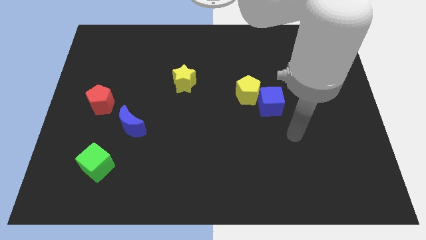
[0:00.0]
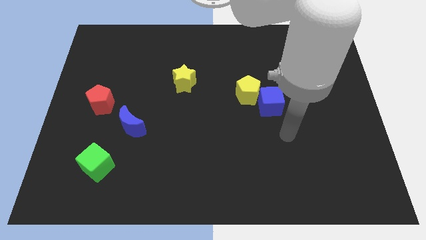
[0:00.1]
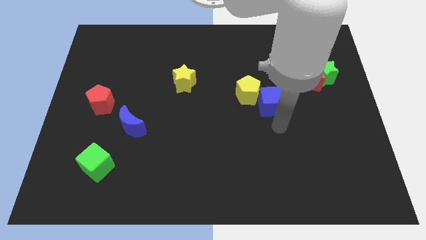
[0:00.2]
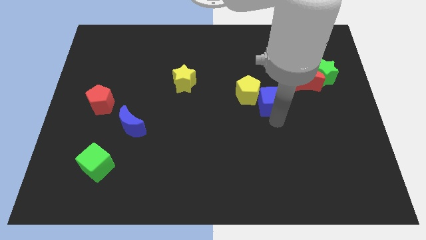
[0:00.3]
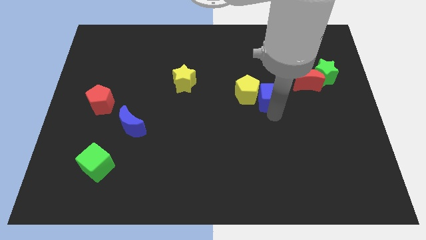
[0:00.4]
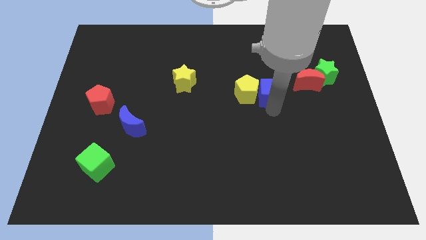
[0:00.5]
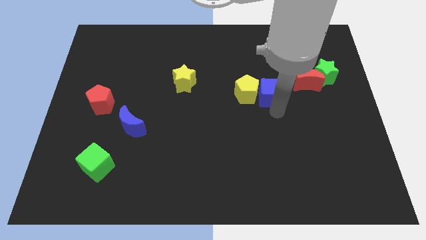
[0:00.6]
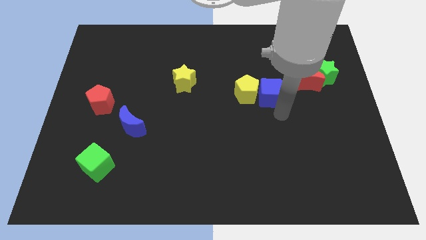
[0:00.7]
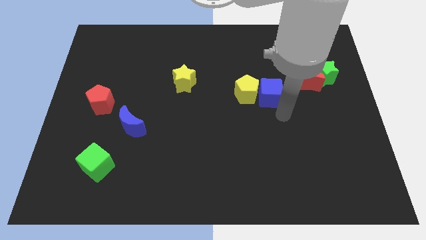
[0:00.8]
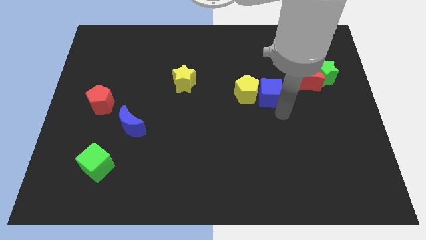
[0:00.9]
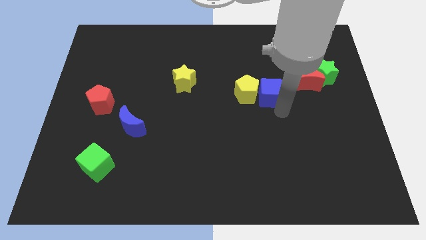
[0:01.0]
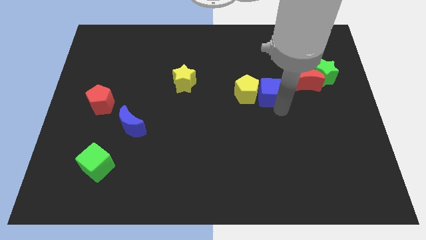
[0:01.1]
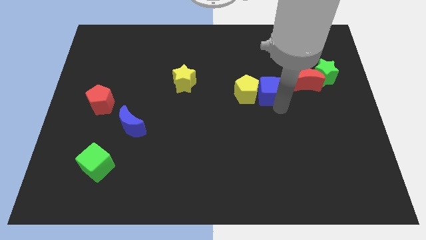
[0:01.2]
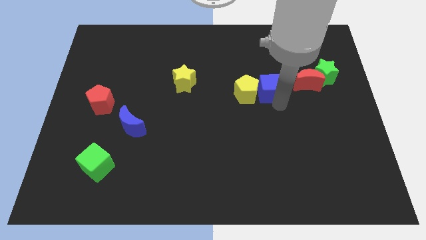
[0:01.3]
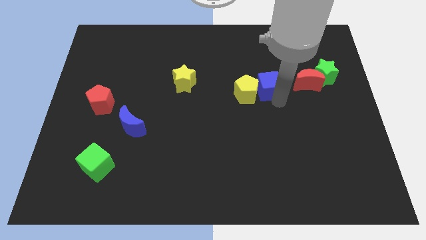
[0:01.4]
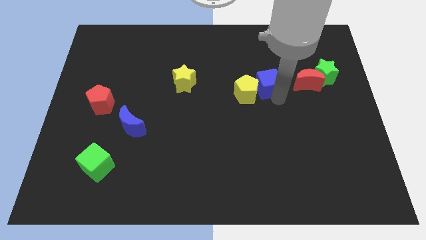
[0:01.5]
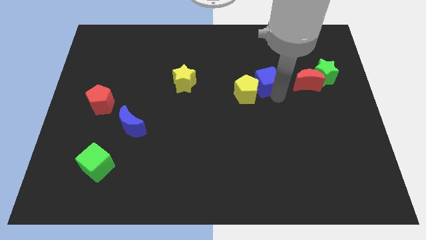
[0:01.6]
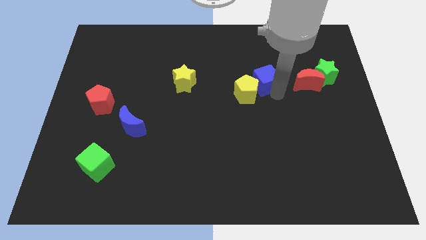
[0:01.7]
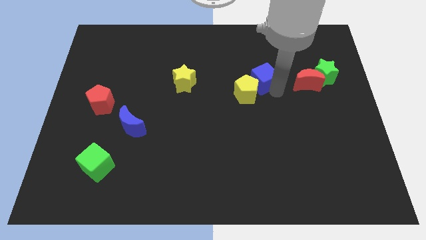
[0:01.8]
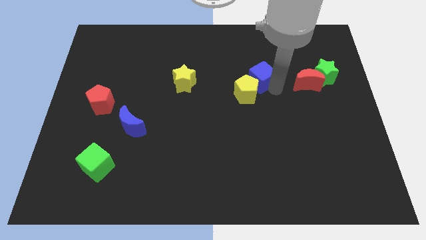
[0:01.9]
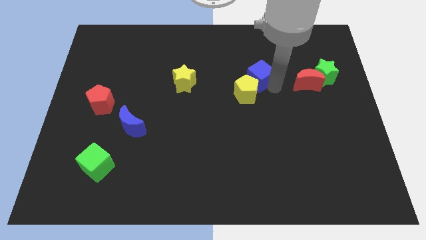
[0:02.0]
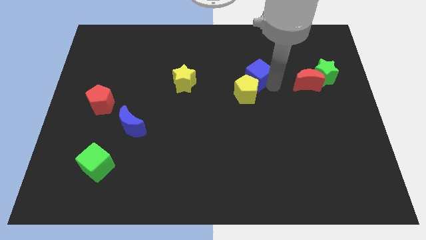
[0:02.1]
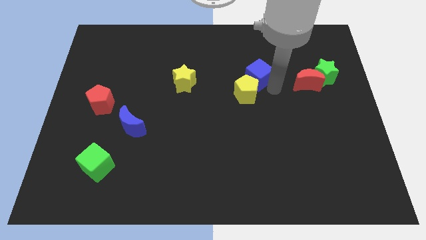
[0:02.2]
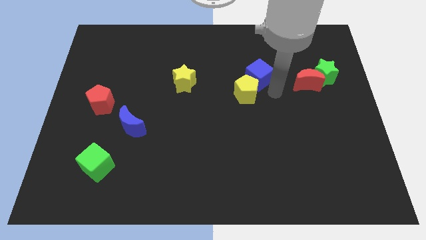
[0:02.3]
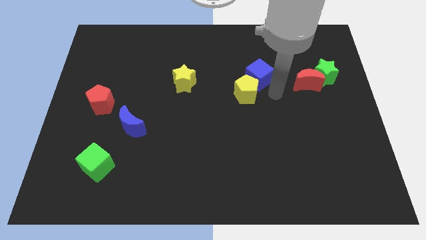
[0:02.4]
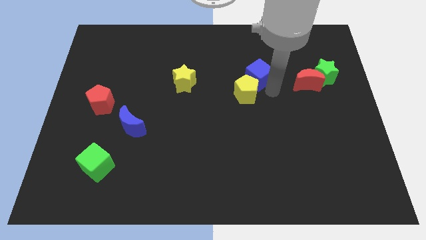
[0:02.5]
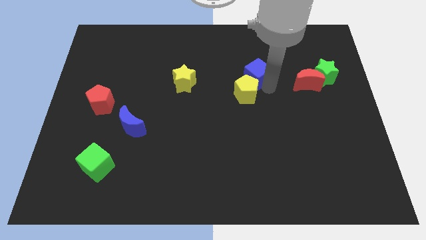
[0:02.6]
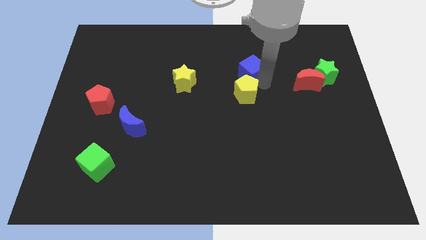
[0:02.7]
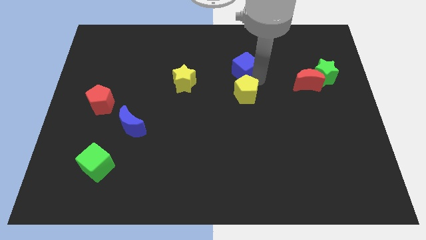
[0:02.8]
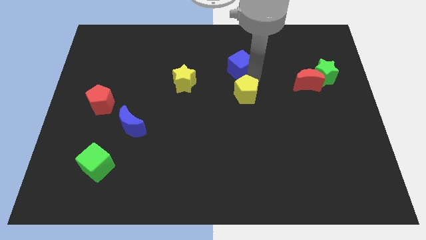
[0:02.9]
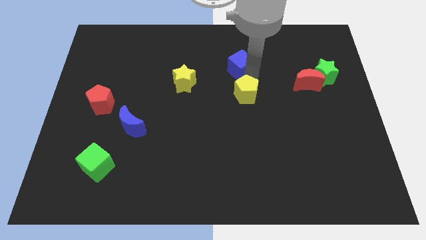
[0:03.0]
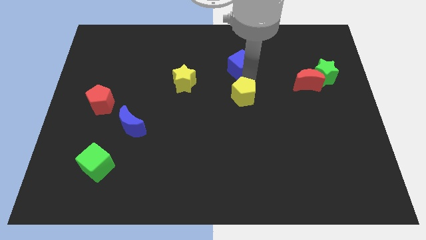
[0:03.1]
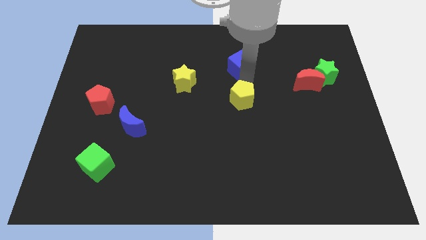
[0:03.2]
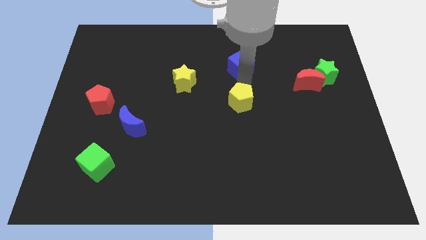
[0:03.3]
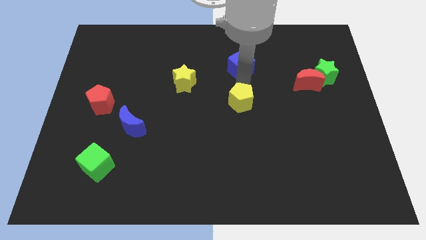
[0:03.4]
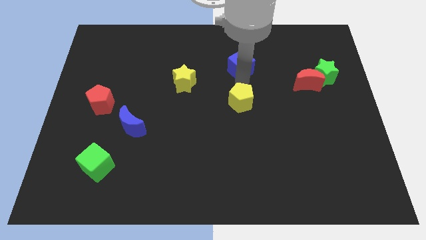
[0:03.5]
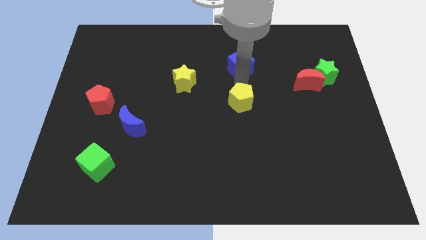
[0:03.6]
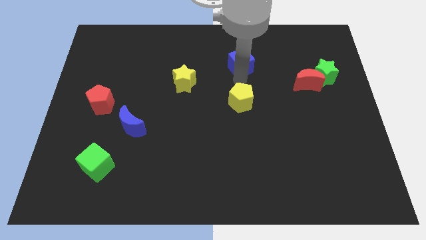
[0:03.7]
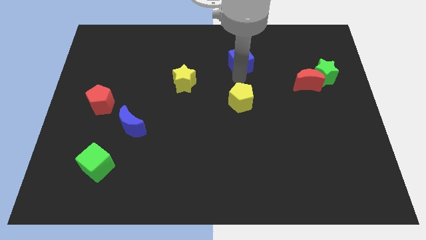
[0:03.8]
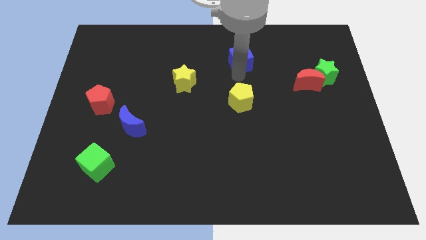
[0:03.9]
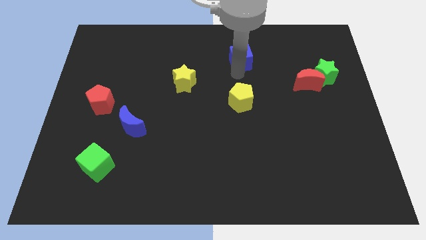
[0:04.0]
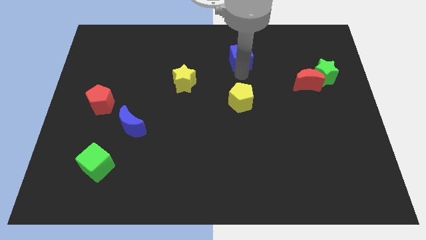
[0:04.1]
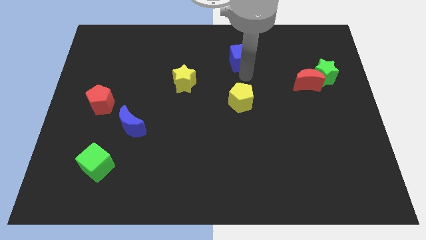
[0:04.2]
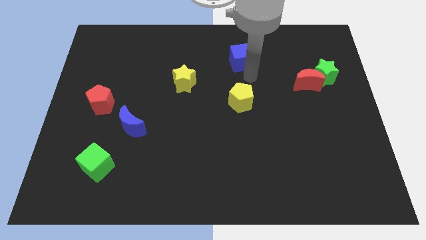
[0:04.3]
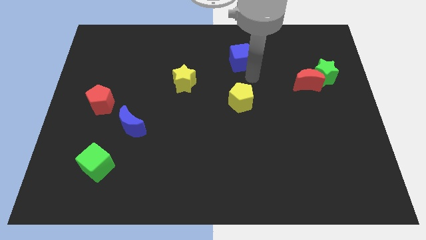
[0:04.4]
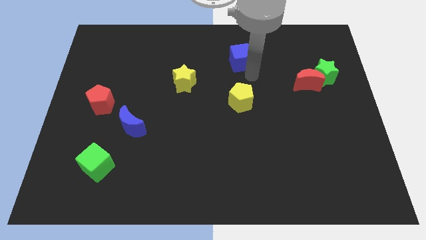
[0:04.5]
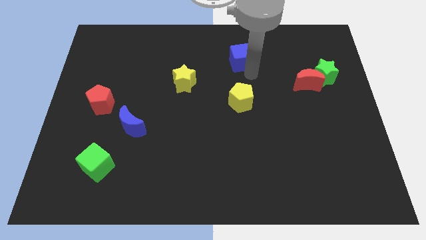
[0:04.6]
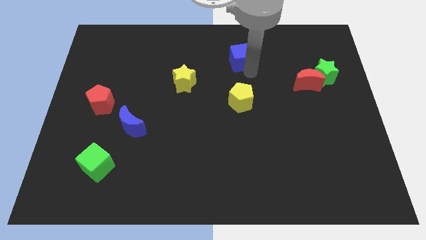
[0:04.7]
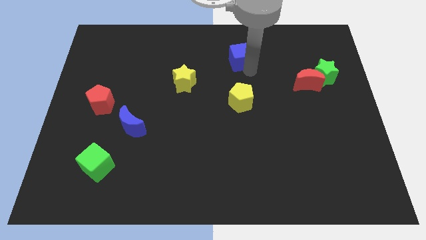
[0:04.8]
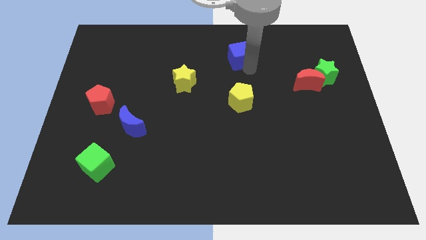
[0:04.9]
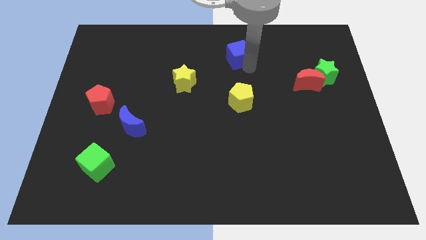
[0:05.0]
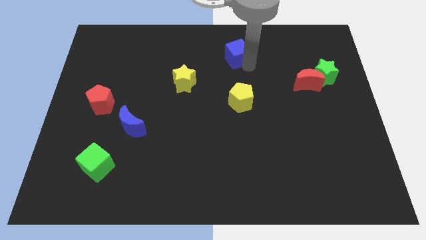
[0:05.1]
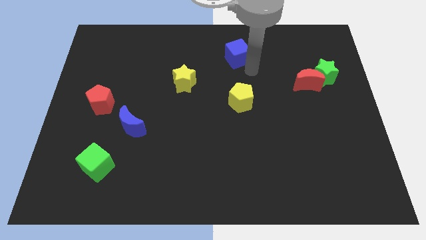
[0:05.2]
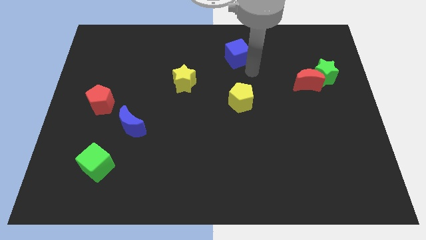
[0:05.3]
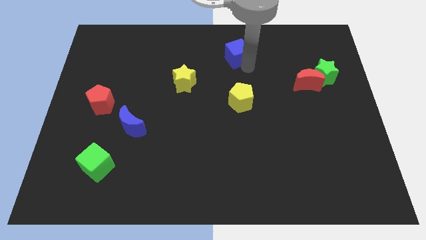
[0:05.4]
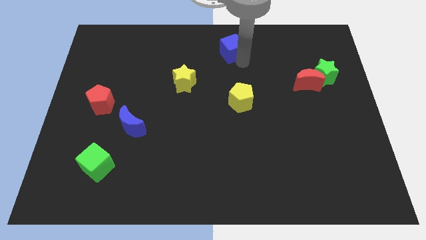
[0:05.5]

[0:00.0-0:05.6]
slide the blue cube to the towards your base

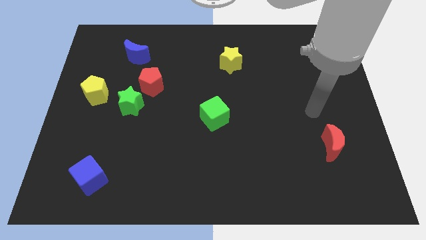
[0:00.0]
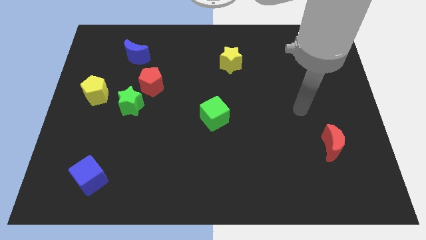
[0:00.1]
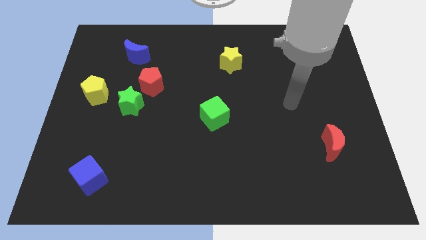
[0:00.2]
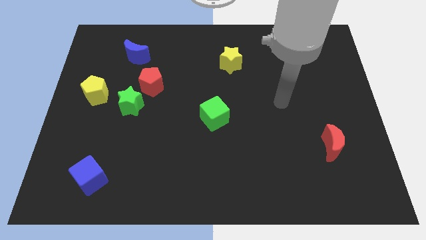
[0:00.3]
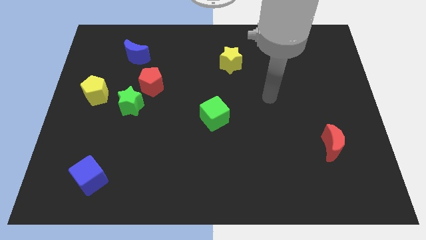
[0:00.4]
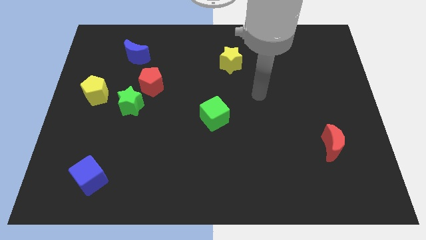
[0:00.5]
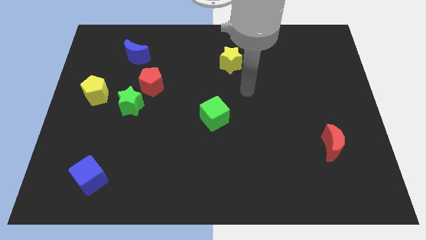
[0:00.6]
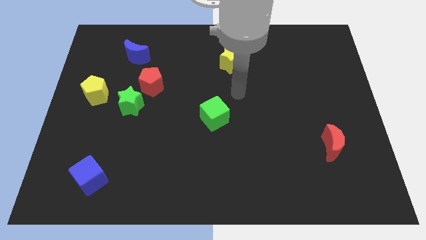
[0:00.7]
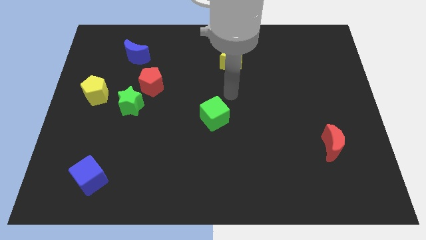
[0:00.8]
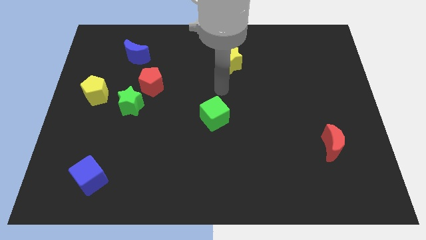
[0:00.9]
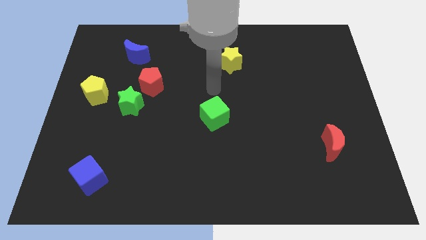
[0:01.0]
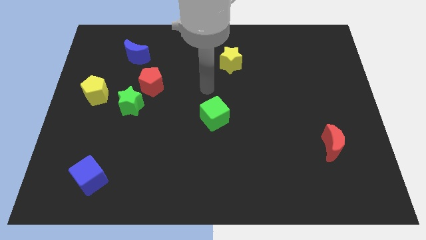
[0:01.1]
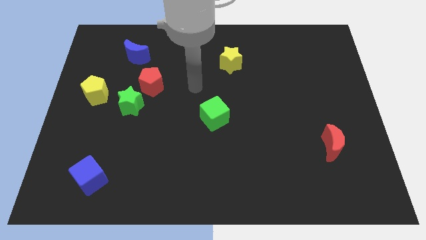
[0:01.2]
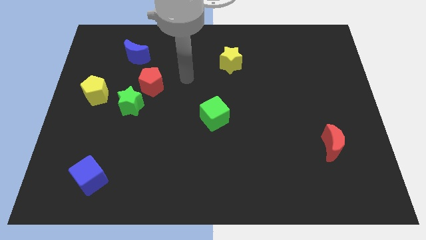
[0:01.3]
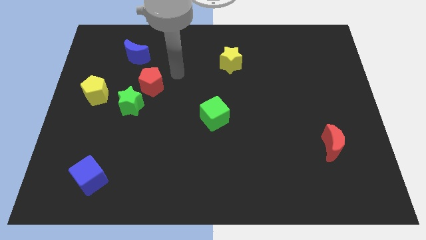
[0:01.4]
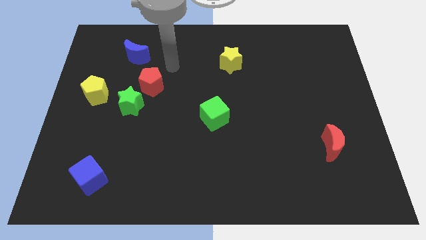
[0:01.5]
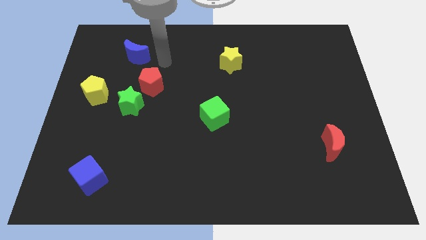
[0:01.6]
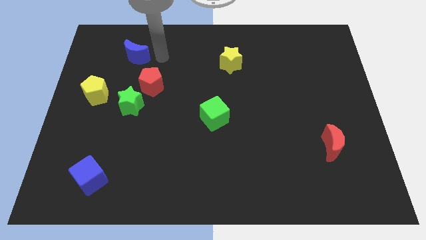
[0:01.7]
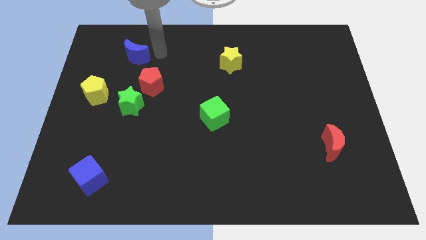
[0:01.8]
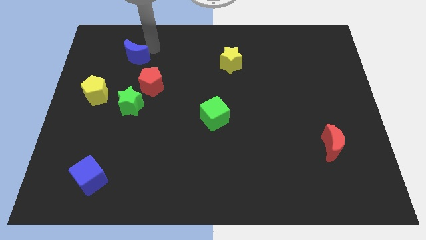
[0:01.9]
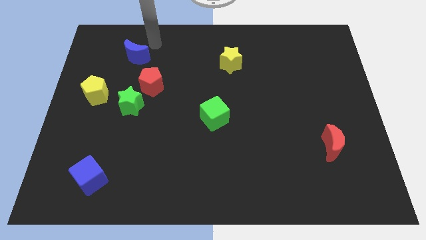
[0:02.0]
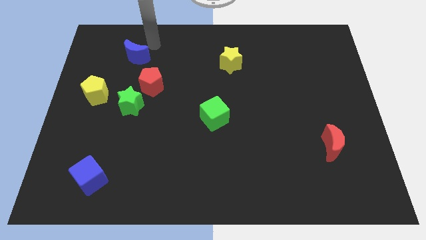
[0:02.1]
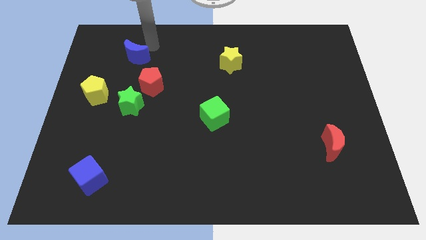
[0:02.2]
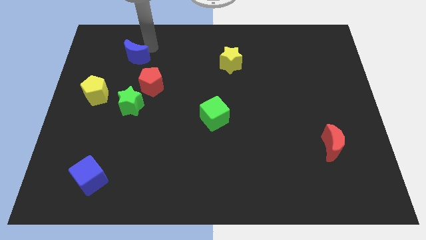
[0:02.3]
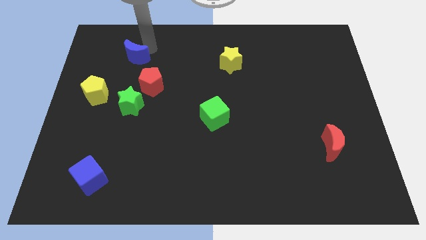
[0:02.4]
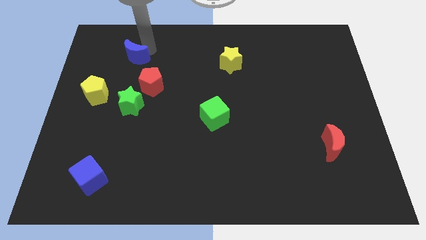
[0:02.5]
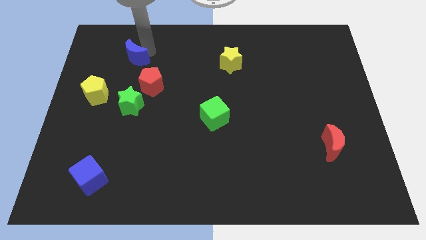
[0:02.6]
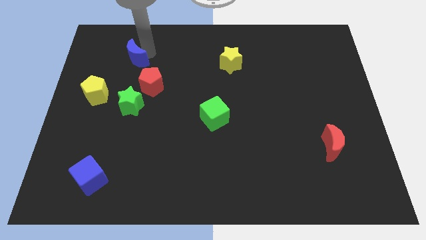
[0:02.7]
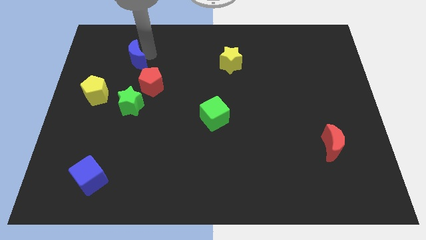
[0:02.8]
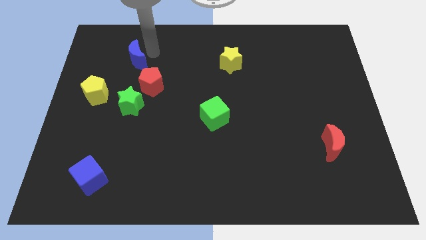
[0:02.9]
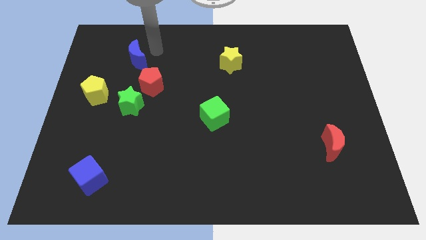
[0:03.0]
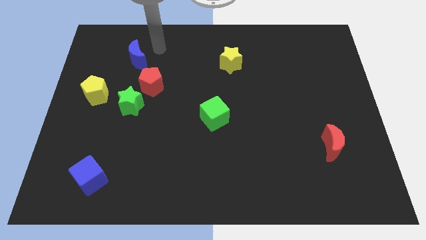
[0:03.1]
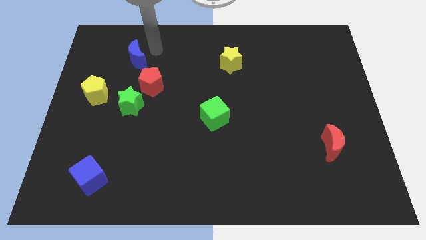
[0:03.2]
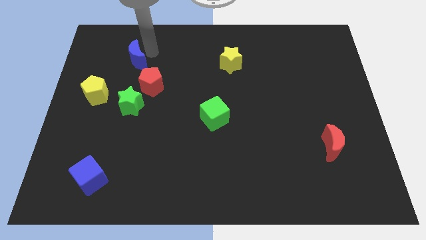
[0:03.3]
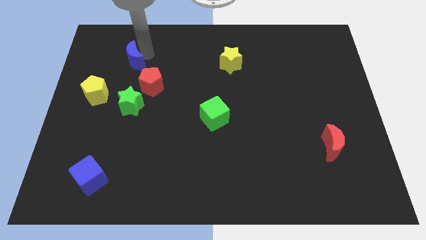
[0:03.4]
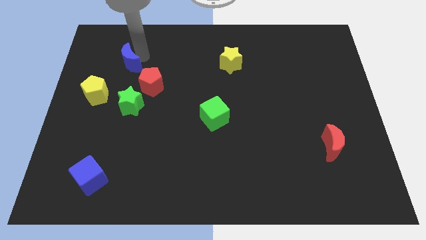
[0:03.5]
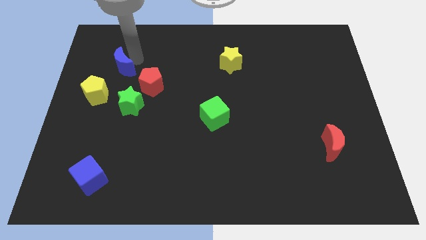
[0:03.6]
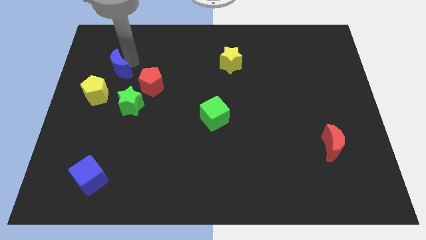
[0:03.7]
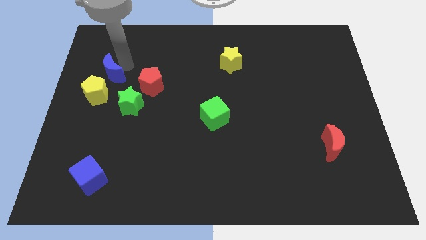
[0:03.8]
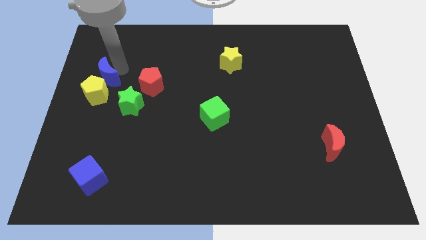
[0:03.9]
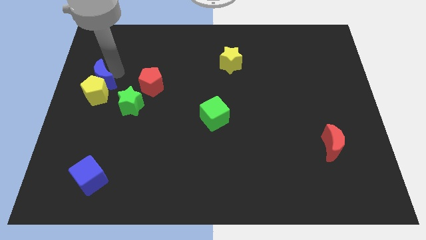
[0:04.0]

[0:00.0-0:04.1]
push the blue moon to the center left
